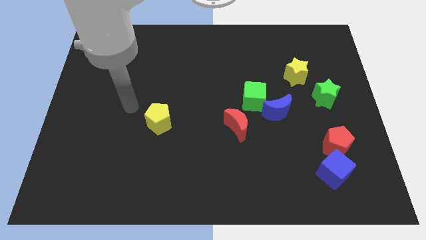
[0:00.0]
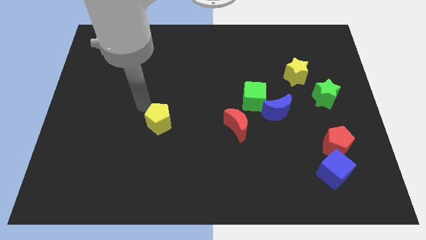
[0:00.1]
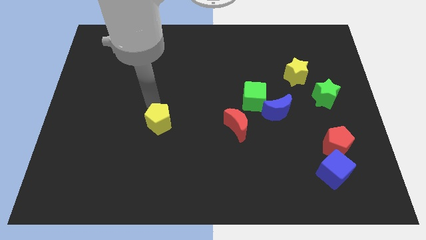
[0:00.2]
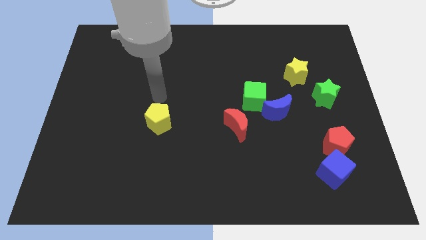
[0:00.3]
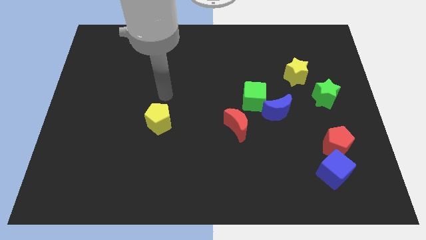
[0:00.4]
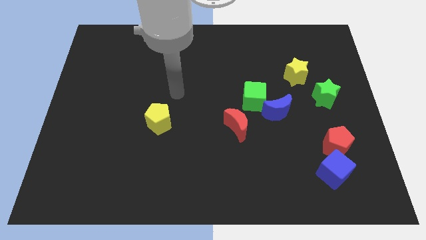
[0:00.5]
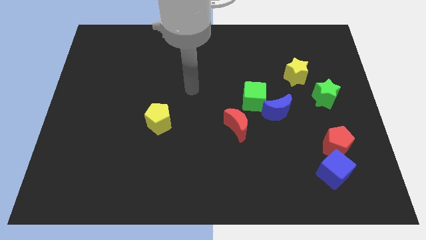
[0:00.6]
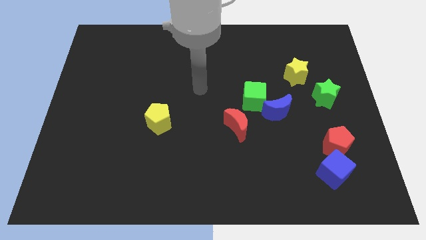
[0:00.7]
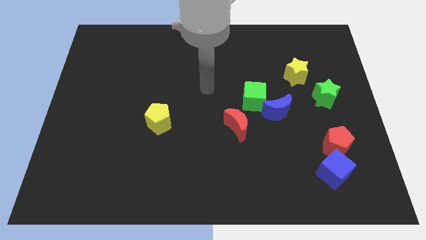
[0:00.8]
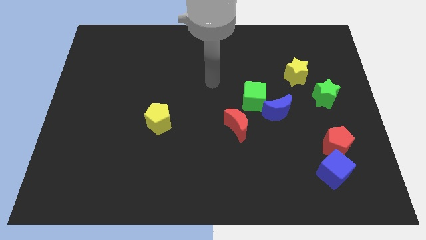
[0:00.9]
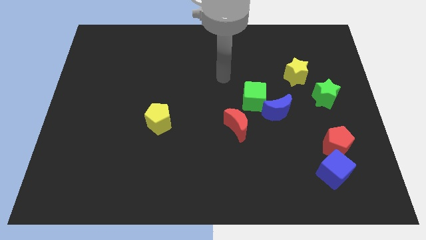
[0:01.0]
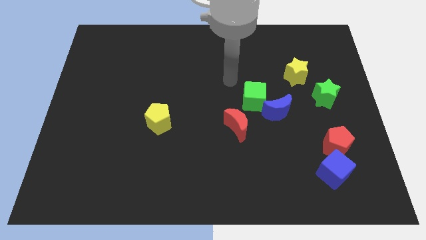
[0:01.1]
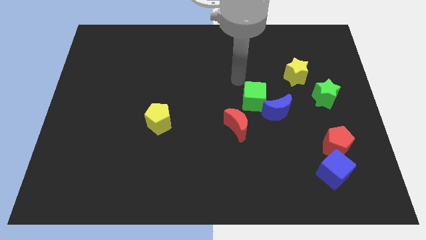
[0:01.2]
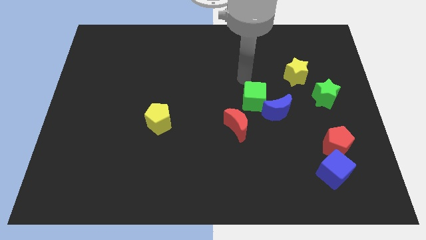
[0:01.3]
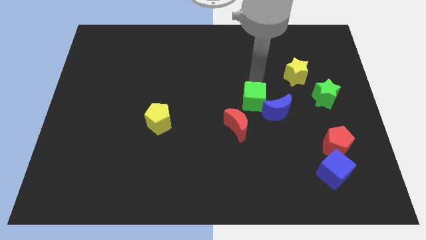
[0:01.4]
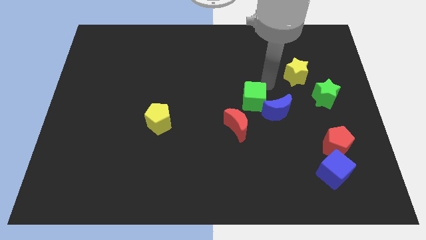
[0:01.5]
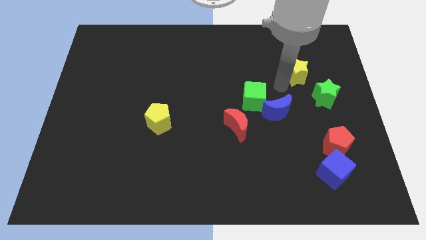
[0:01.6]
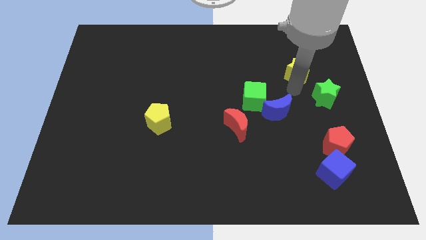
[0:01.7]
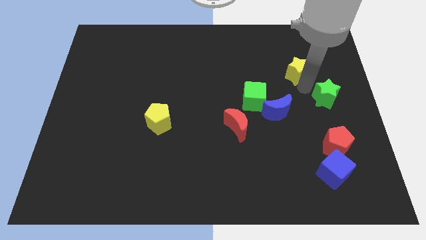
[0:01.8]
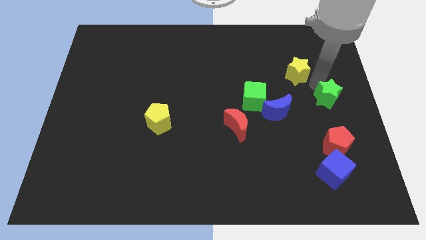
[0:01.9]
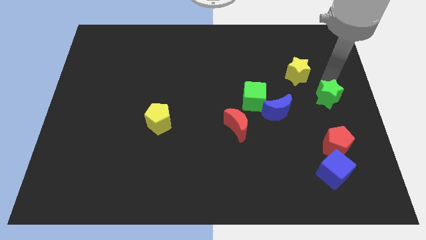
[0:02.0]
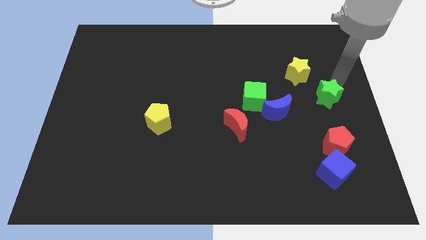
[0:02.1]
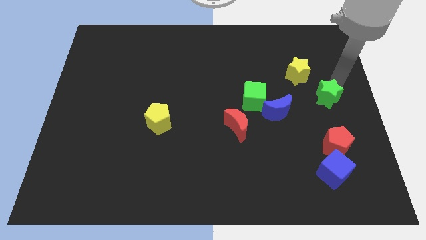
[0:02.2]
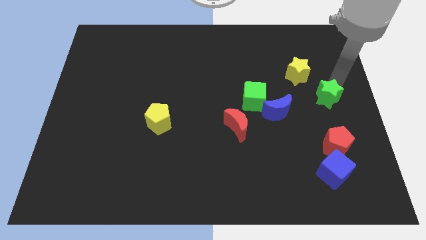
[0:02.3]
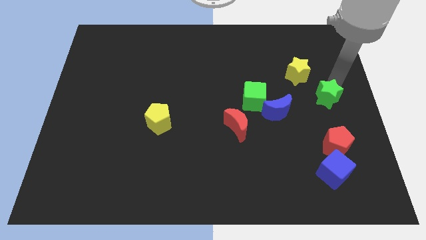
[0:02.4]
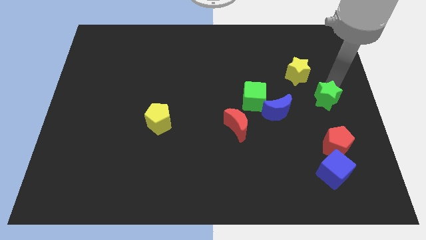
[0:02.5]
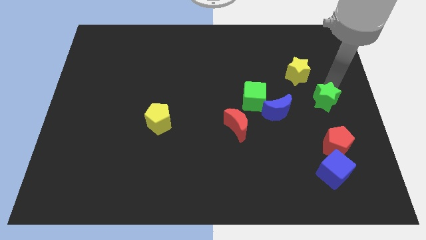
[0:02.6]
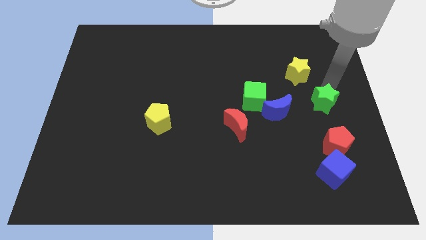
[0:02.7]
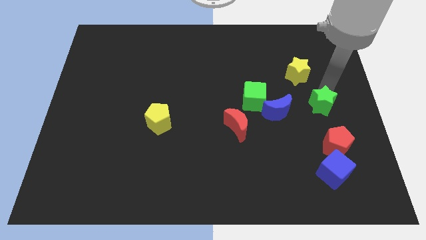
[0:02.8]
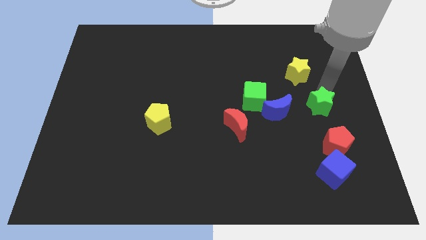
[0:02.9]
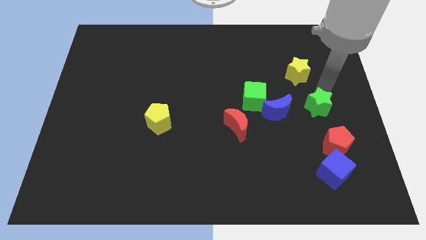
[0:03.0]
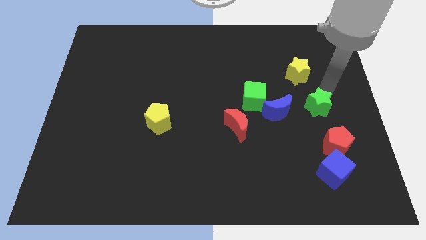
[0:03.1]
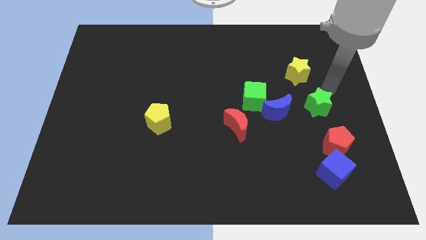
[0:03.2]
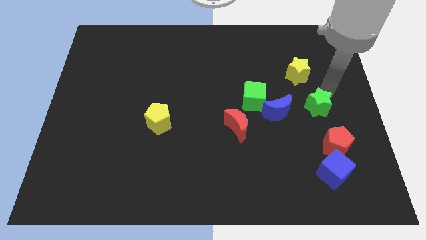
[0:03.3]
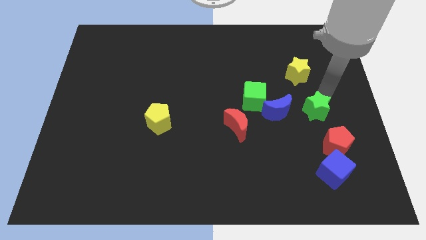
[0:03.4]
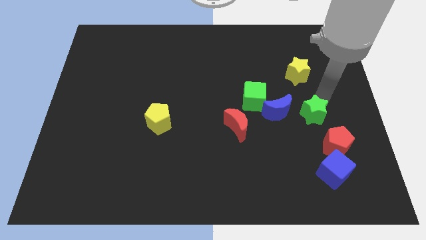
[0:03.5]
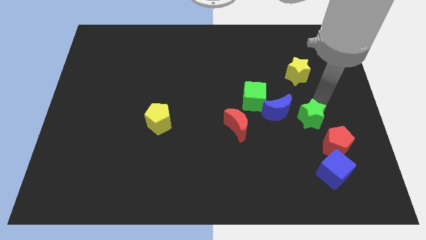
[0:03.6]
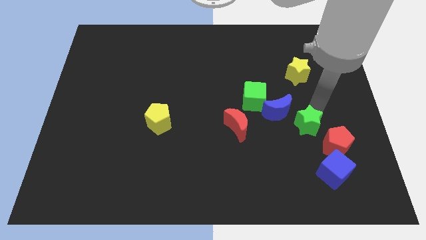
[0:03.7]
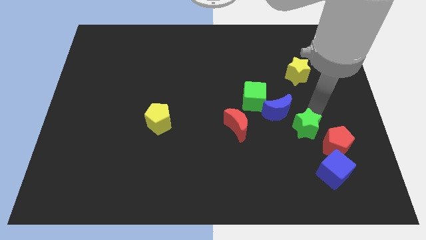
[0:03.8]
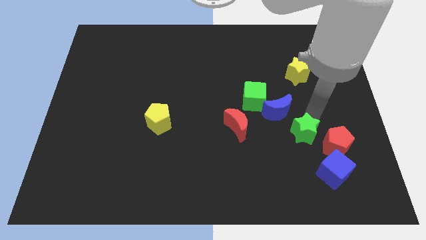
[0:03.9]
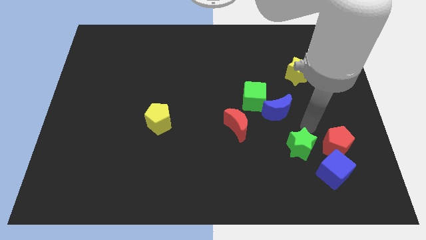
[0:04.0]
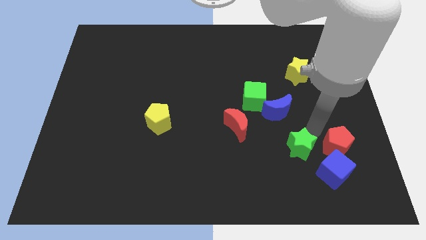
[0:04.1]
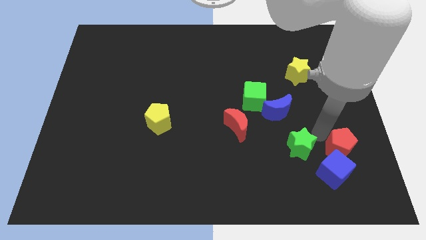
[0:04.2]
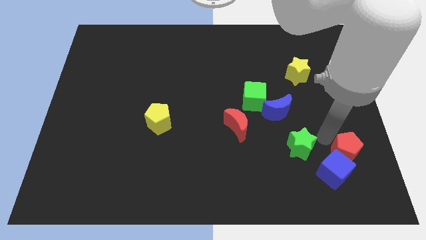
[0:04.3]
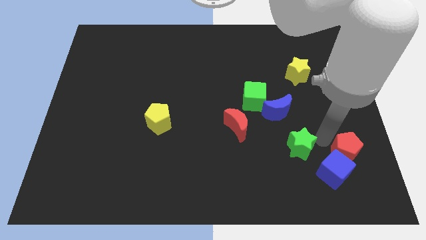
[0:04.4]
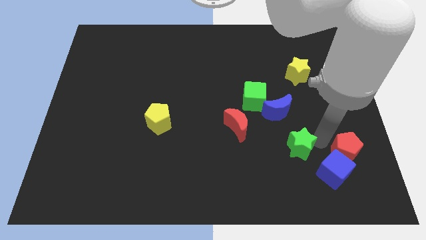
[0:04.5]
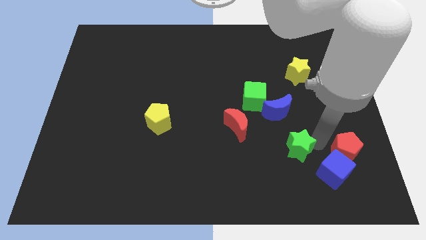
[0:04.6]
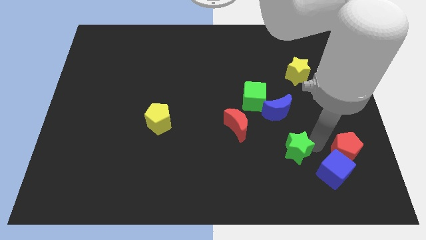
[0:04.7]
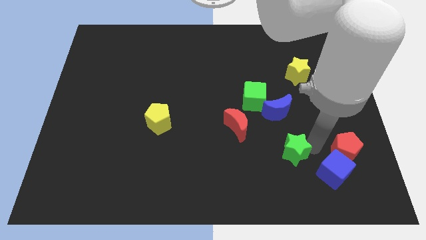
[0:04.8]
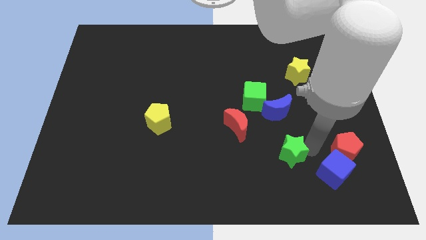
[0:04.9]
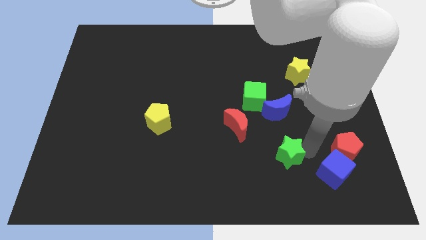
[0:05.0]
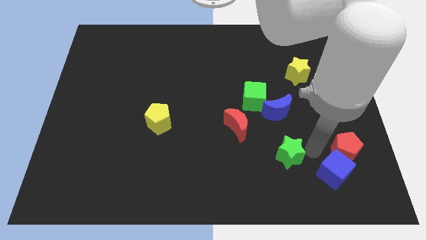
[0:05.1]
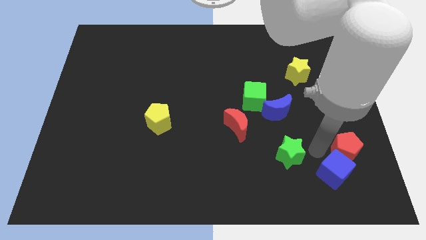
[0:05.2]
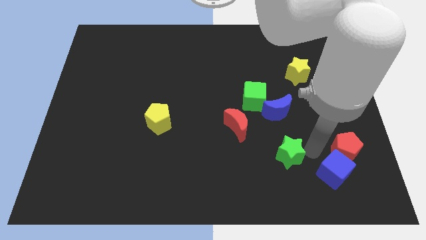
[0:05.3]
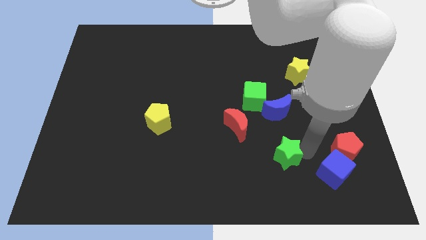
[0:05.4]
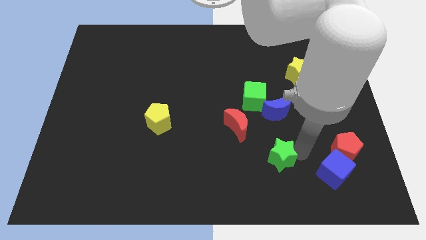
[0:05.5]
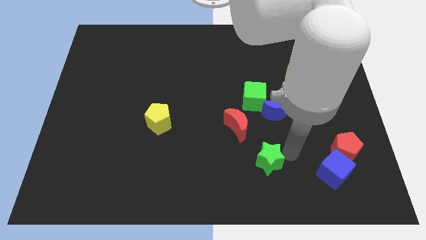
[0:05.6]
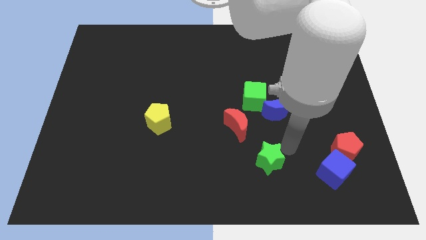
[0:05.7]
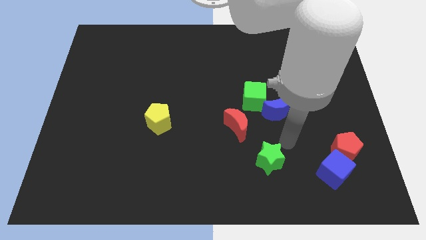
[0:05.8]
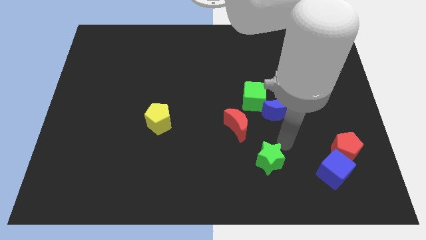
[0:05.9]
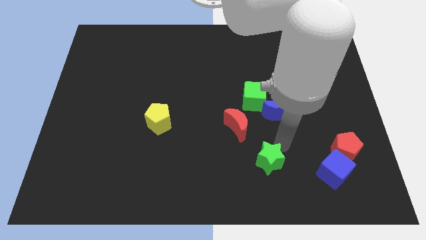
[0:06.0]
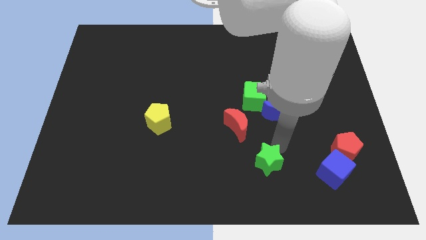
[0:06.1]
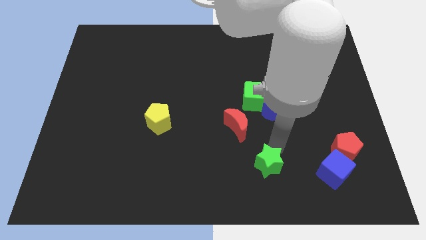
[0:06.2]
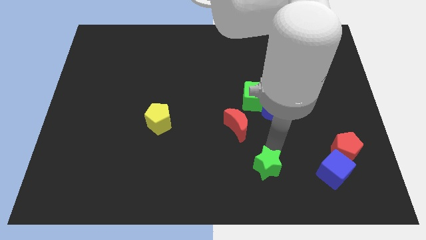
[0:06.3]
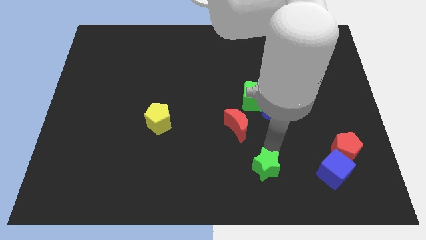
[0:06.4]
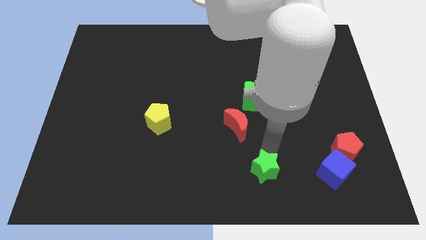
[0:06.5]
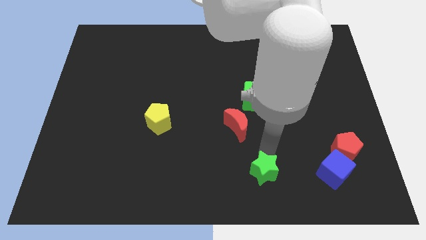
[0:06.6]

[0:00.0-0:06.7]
slide the green star to the bottom side
